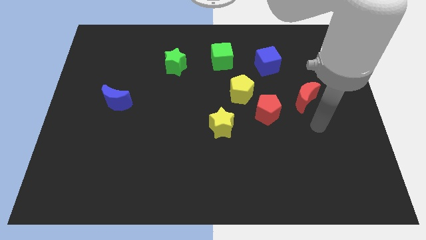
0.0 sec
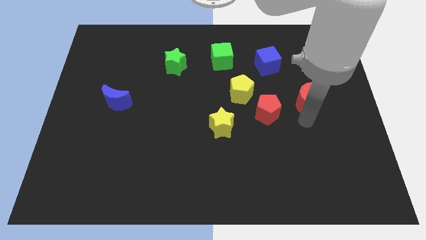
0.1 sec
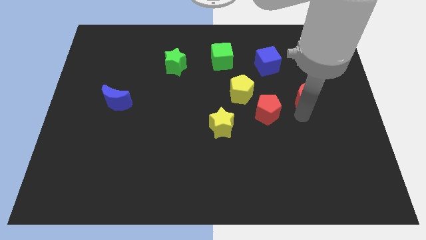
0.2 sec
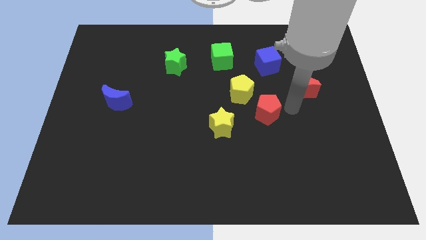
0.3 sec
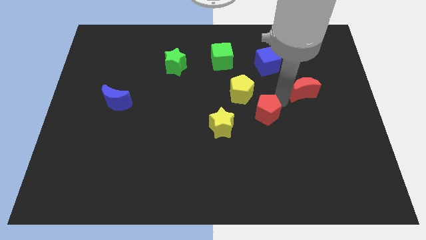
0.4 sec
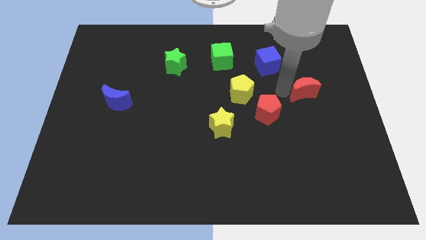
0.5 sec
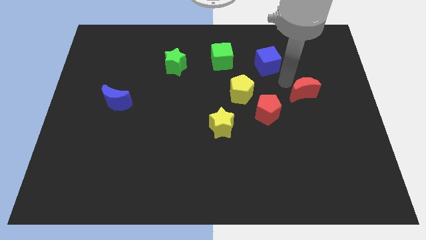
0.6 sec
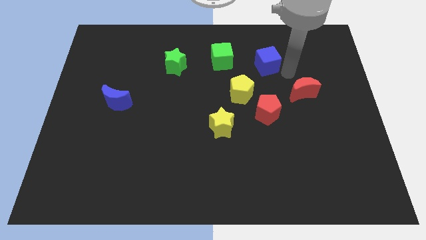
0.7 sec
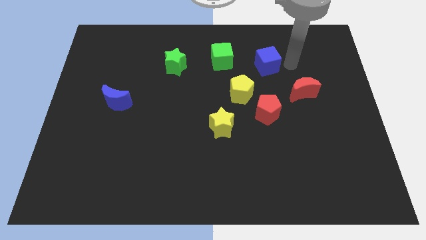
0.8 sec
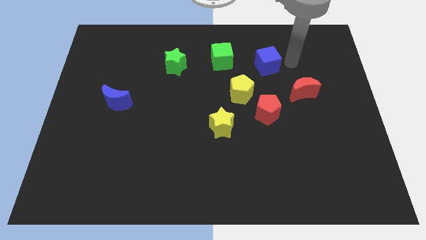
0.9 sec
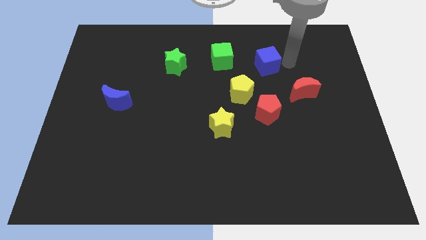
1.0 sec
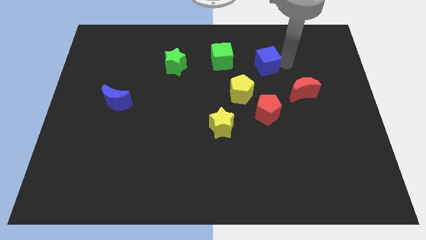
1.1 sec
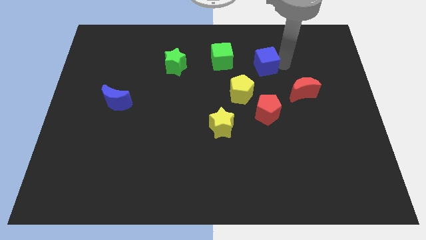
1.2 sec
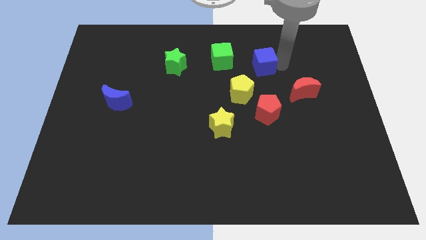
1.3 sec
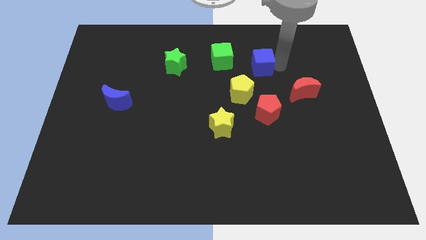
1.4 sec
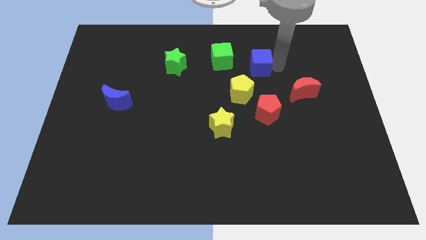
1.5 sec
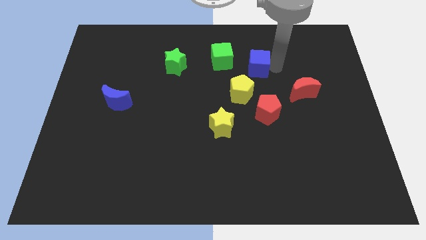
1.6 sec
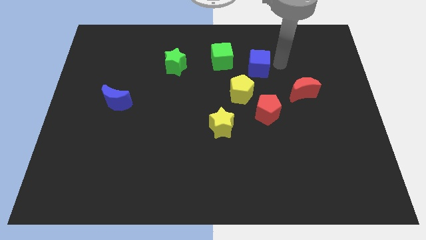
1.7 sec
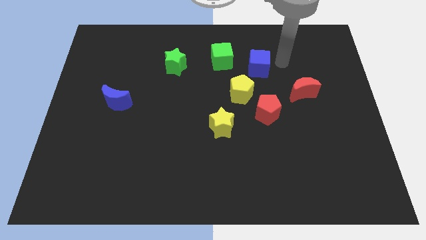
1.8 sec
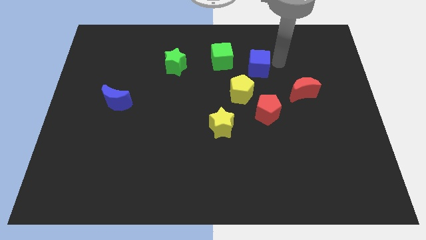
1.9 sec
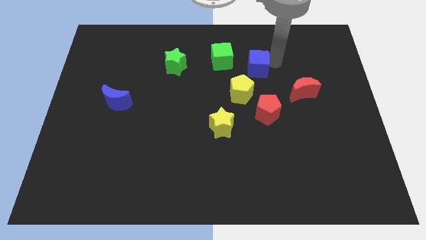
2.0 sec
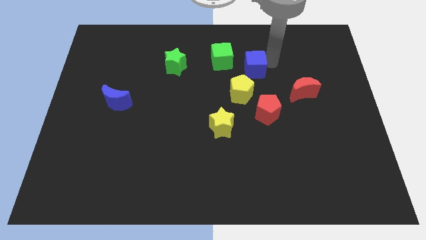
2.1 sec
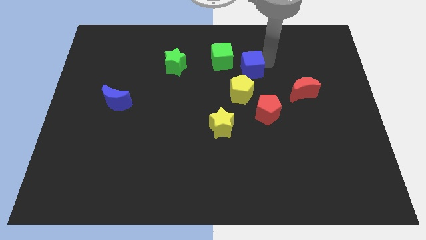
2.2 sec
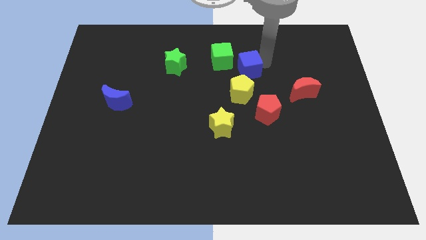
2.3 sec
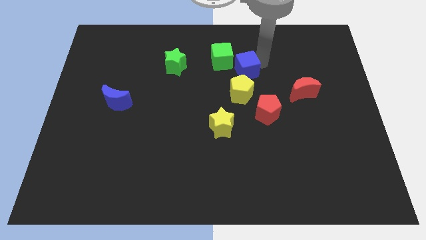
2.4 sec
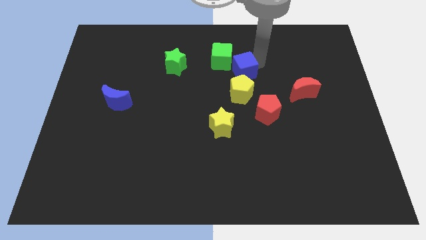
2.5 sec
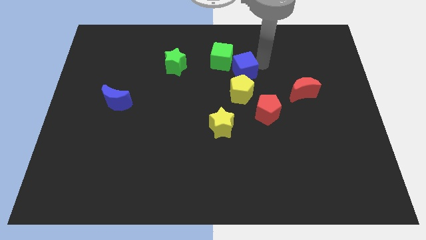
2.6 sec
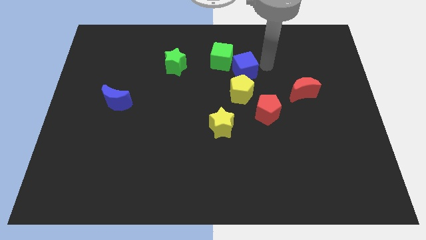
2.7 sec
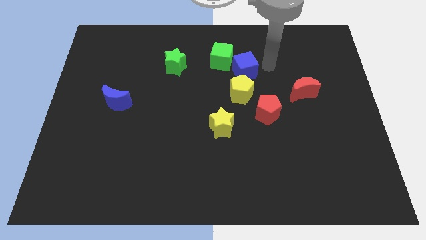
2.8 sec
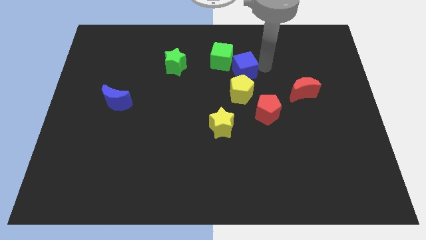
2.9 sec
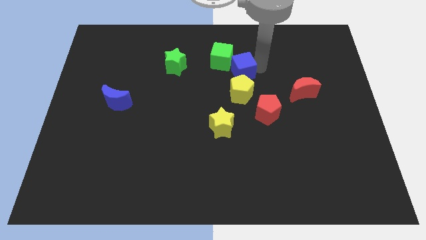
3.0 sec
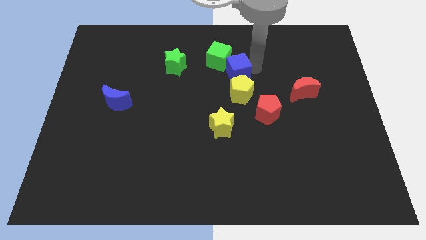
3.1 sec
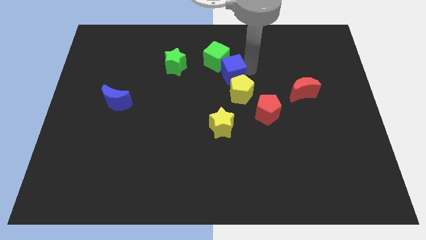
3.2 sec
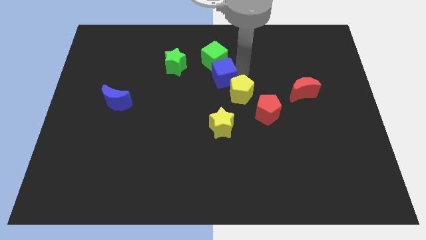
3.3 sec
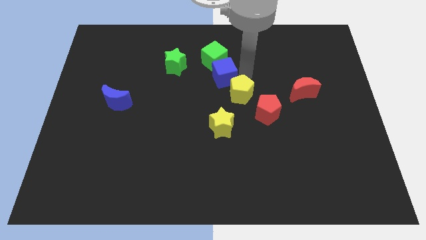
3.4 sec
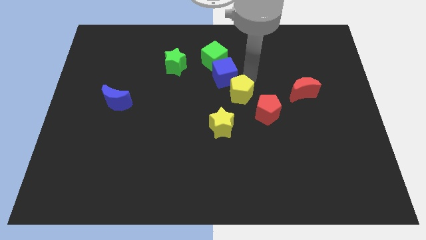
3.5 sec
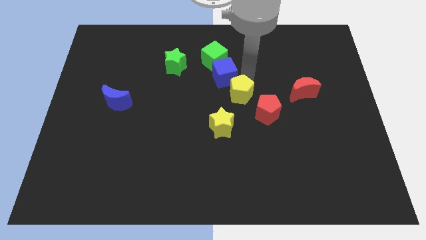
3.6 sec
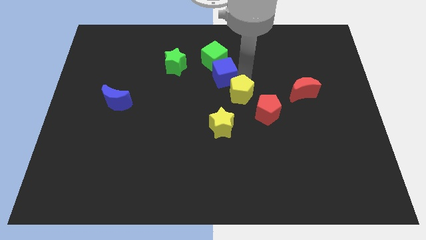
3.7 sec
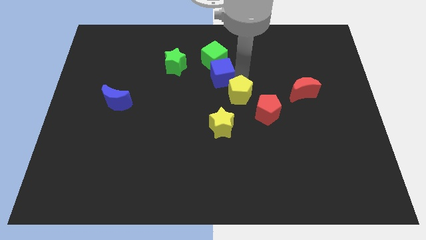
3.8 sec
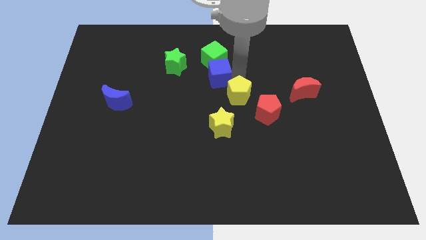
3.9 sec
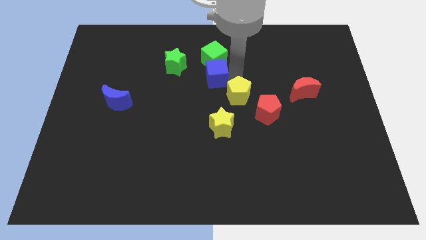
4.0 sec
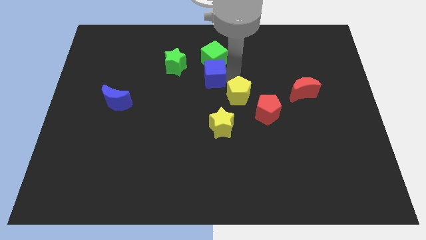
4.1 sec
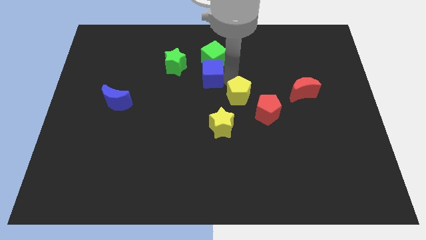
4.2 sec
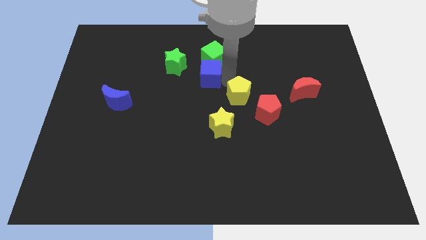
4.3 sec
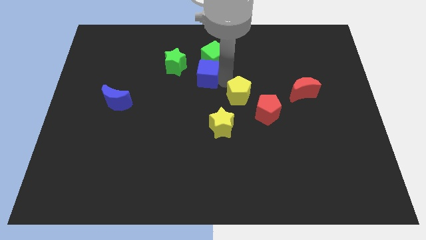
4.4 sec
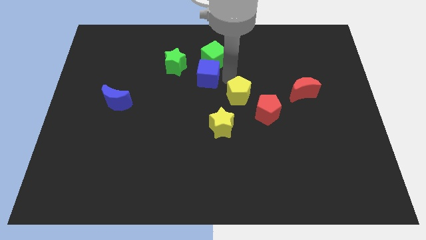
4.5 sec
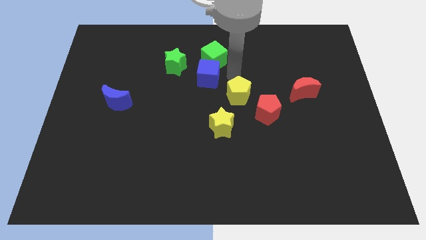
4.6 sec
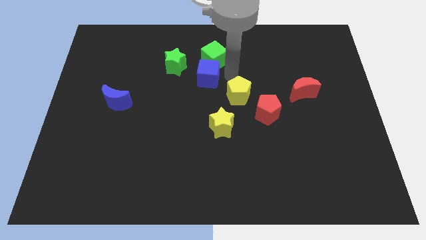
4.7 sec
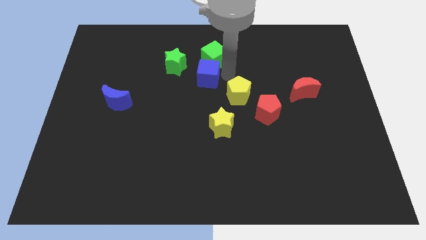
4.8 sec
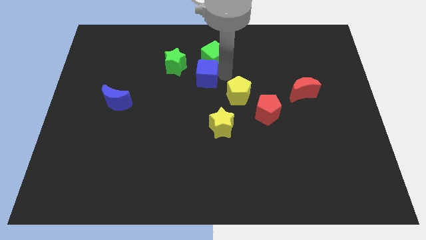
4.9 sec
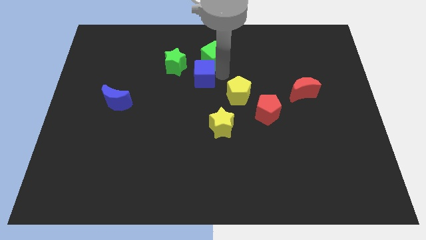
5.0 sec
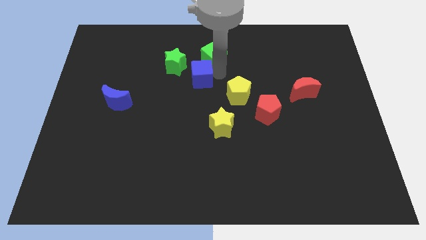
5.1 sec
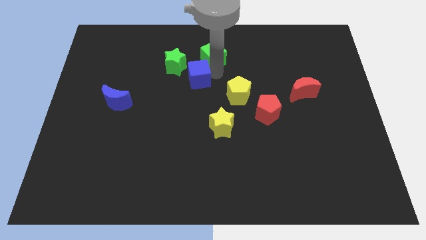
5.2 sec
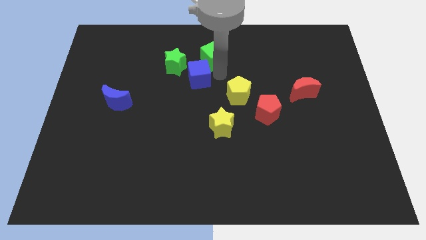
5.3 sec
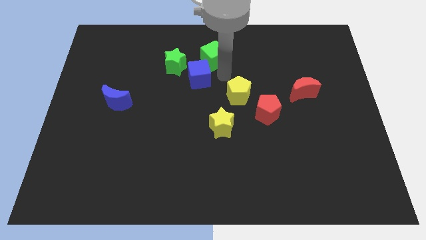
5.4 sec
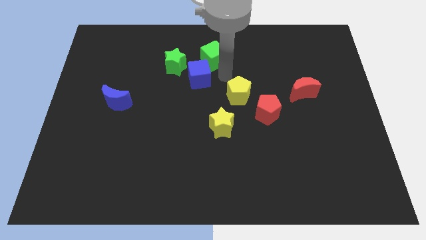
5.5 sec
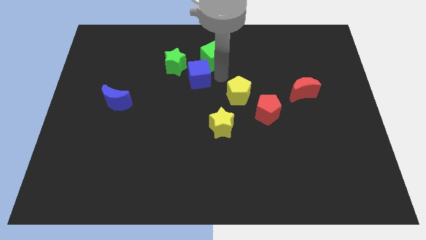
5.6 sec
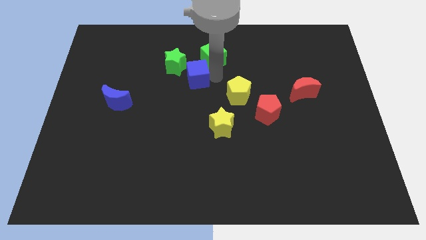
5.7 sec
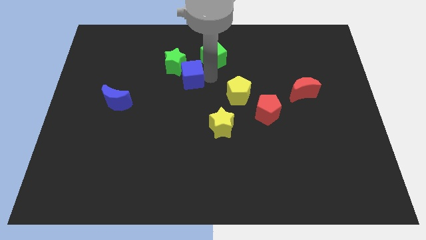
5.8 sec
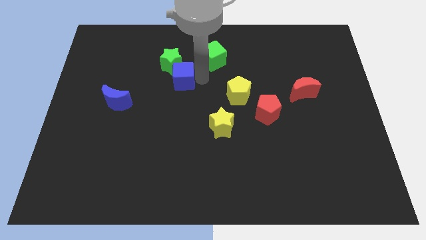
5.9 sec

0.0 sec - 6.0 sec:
push the blue cube to the left

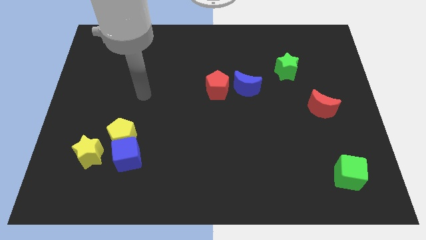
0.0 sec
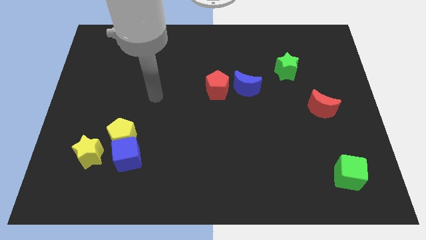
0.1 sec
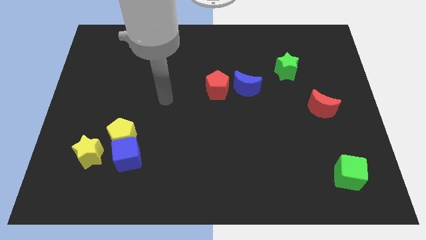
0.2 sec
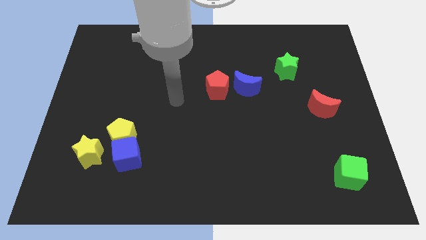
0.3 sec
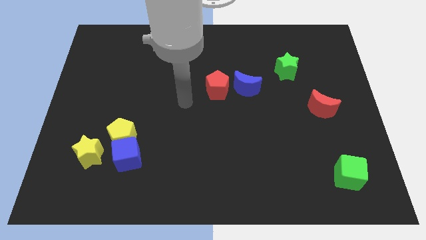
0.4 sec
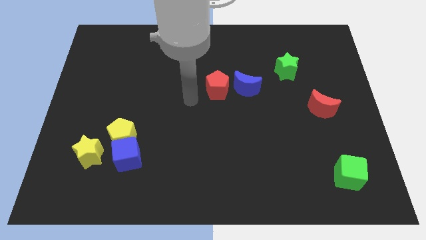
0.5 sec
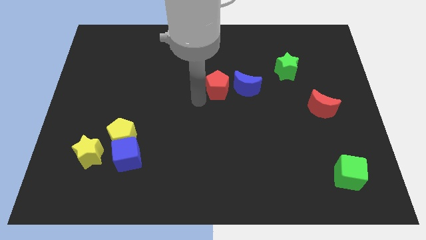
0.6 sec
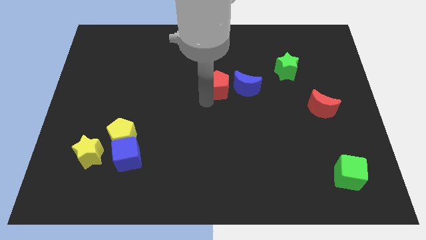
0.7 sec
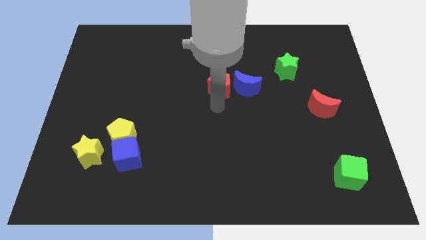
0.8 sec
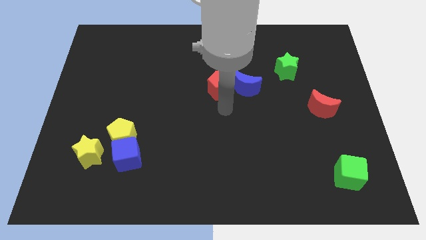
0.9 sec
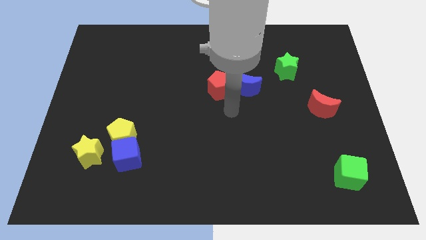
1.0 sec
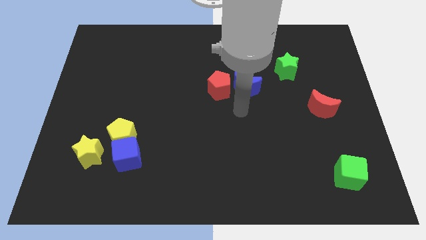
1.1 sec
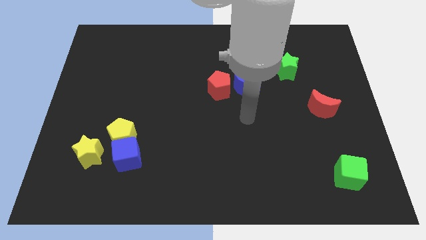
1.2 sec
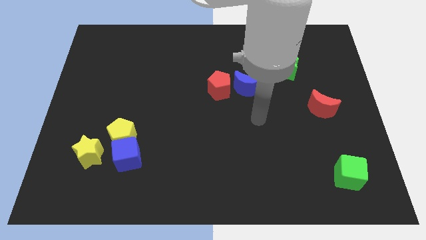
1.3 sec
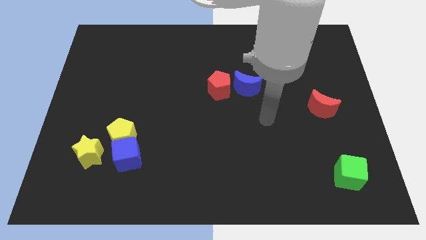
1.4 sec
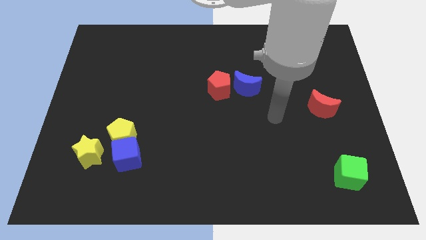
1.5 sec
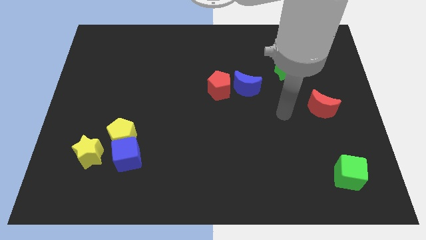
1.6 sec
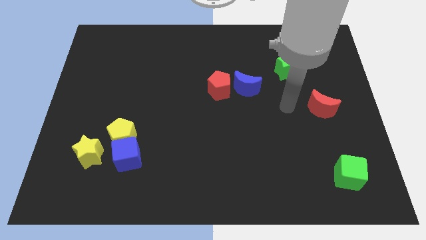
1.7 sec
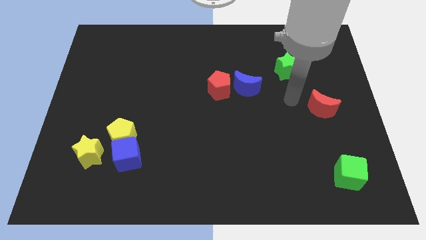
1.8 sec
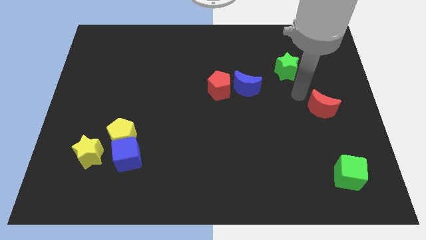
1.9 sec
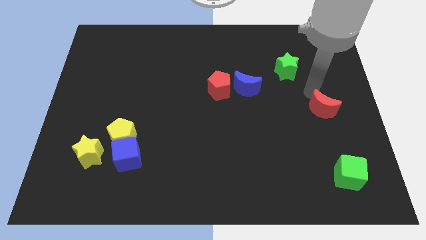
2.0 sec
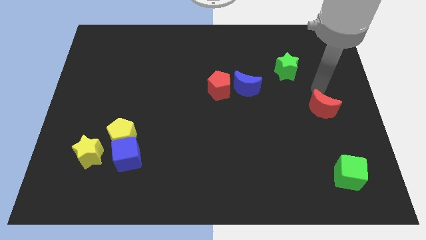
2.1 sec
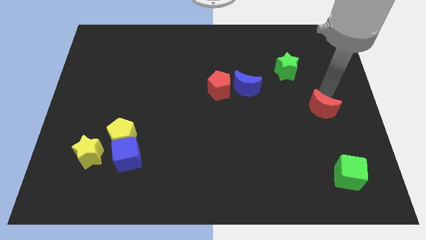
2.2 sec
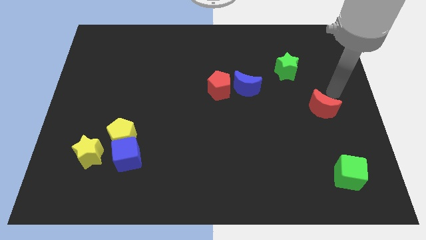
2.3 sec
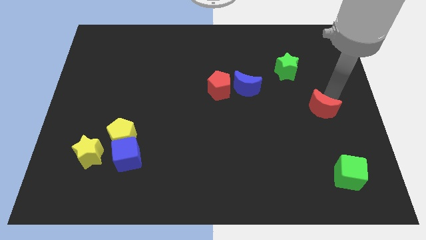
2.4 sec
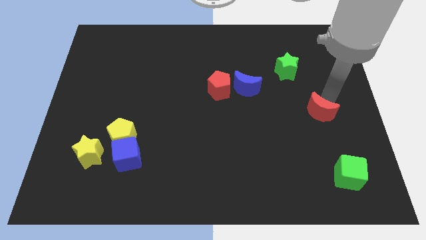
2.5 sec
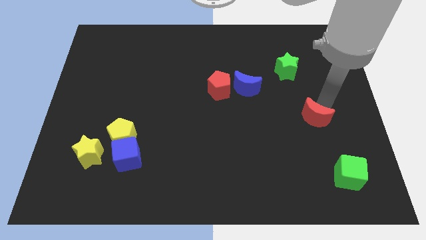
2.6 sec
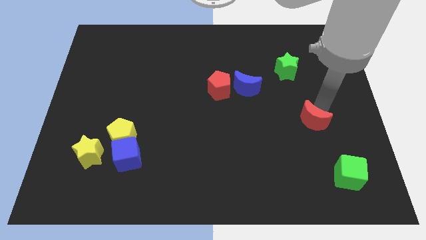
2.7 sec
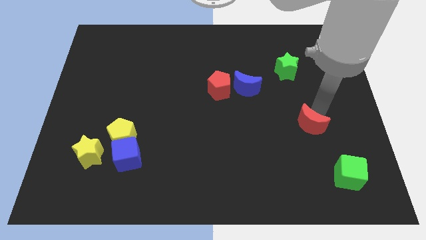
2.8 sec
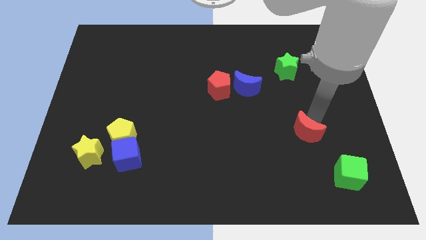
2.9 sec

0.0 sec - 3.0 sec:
slightly push the red moon downwards and to the left diagonally
